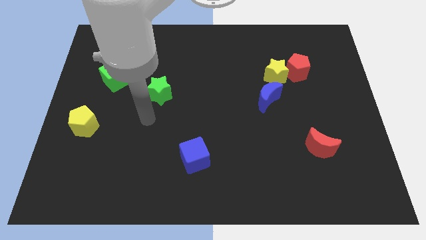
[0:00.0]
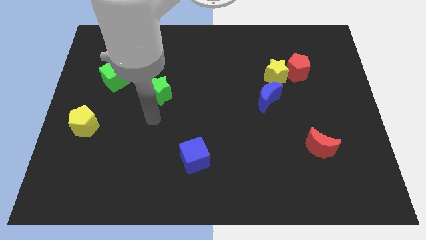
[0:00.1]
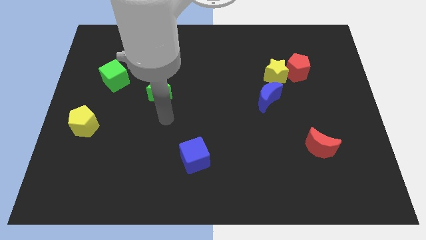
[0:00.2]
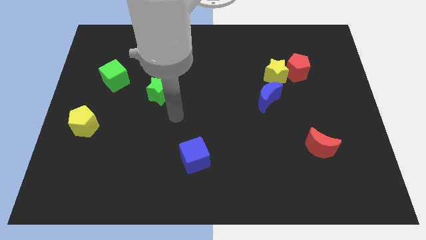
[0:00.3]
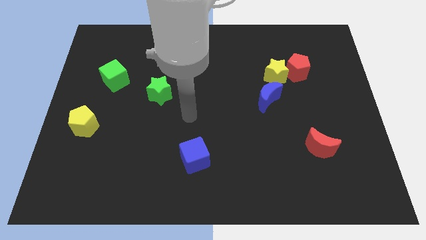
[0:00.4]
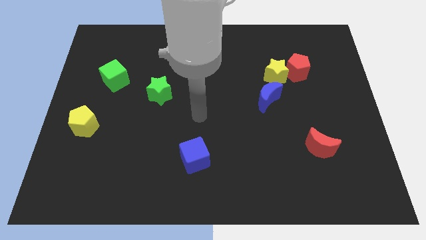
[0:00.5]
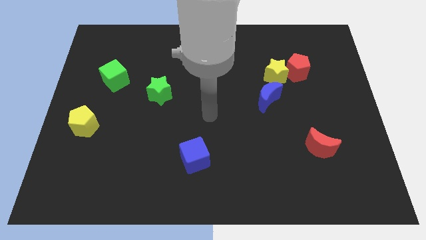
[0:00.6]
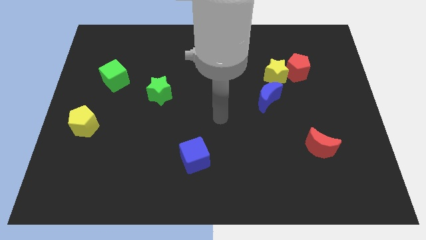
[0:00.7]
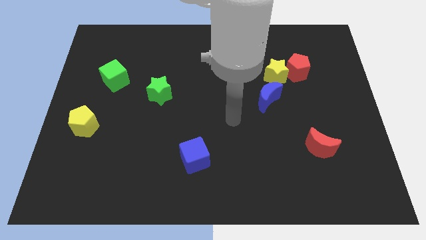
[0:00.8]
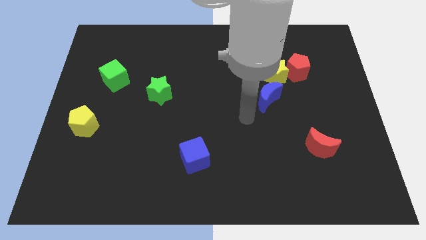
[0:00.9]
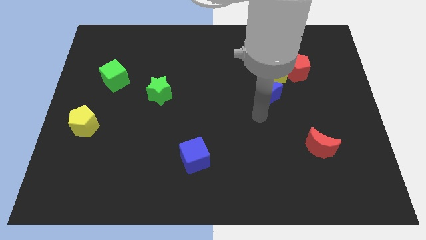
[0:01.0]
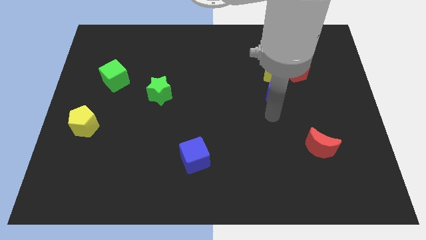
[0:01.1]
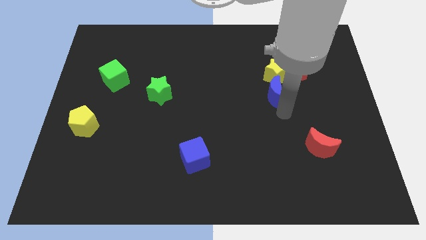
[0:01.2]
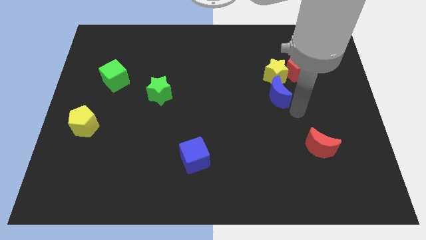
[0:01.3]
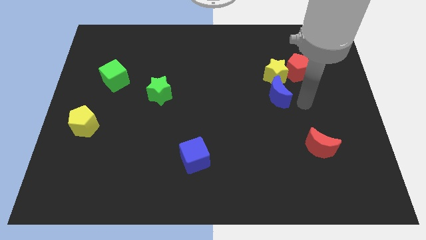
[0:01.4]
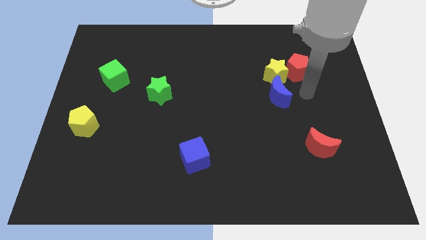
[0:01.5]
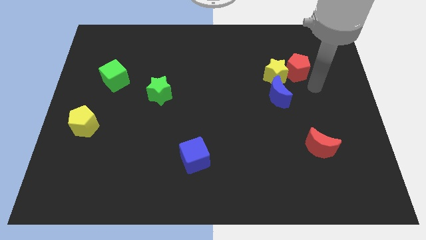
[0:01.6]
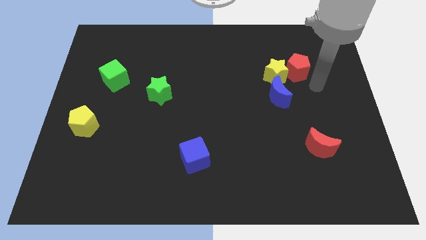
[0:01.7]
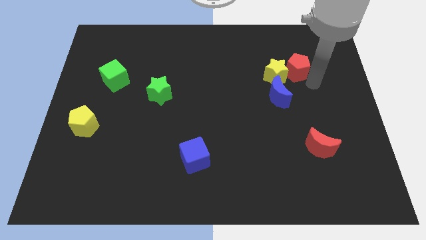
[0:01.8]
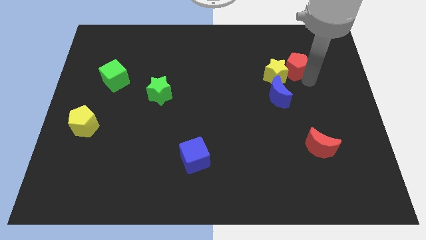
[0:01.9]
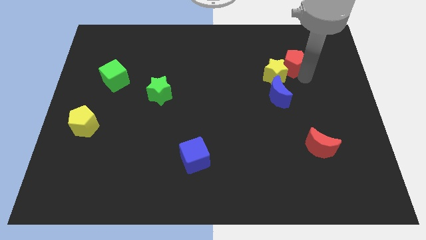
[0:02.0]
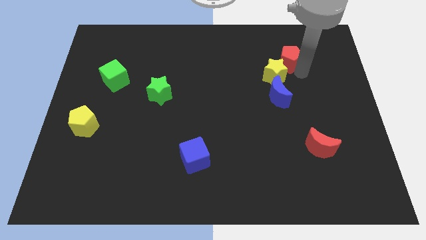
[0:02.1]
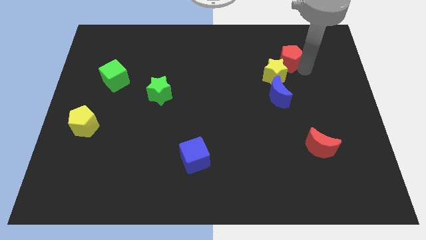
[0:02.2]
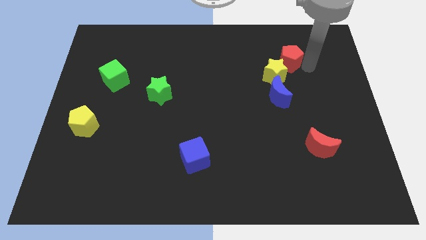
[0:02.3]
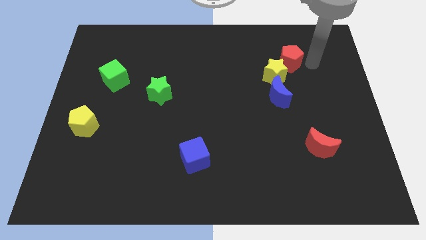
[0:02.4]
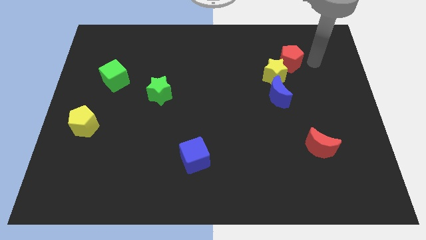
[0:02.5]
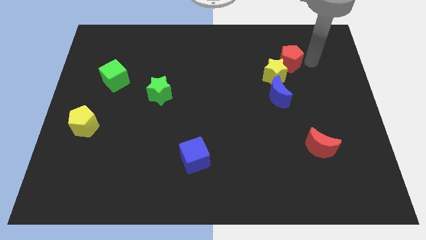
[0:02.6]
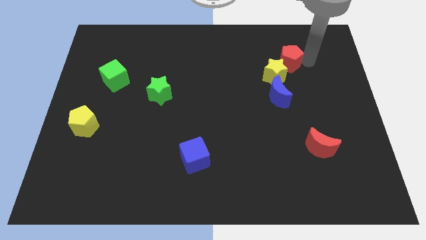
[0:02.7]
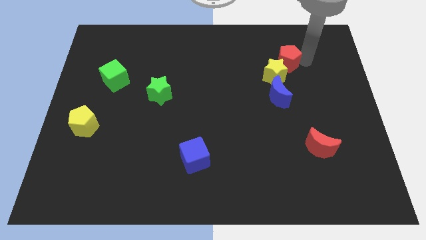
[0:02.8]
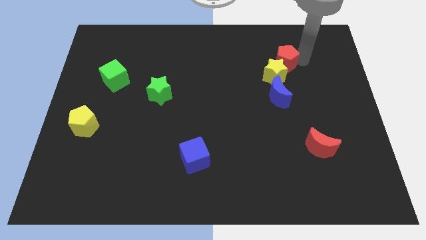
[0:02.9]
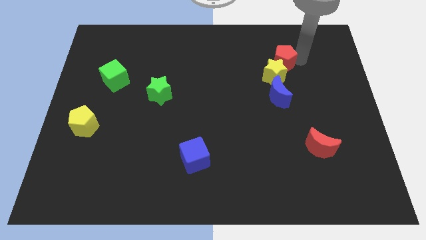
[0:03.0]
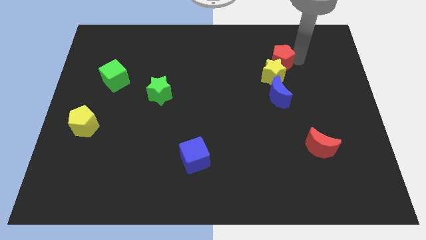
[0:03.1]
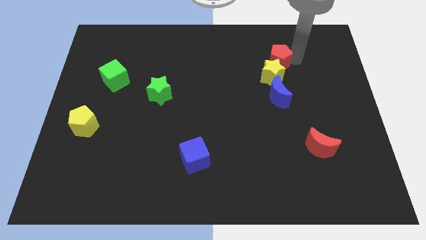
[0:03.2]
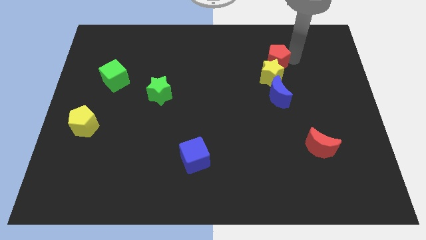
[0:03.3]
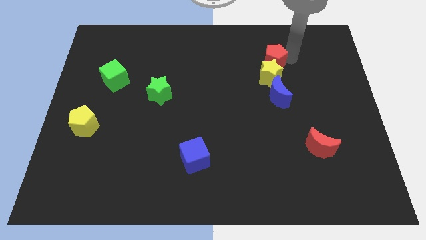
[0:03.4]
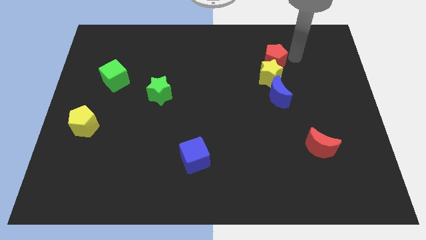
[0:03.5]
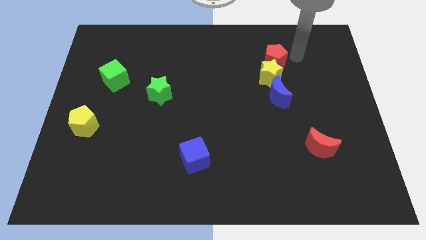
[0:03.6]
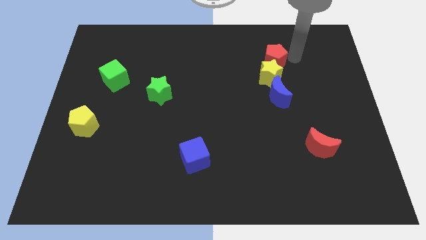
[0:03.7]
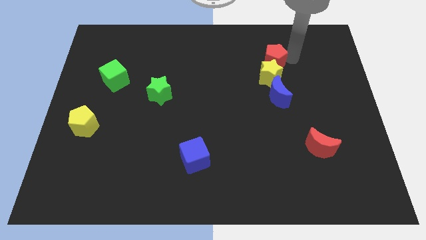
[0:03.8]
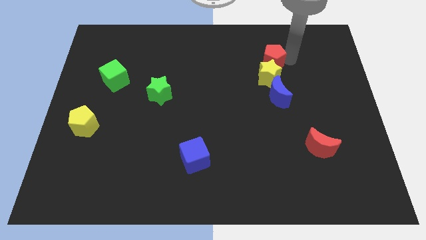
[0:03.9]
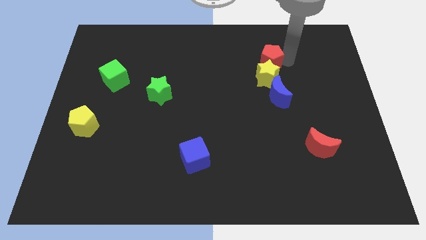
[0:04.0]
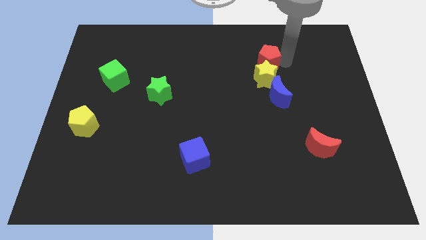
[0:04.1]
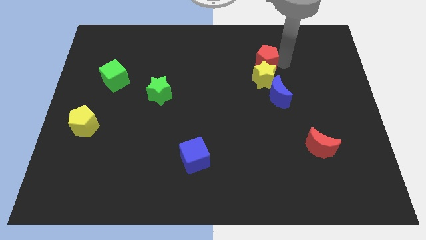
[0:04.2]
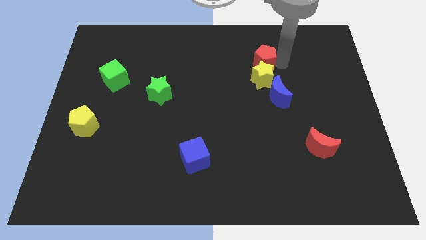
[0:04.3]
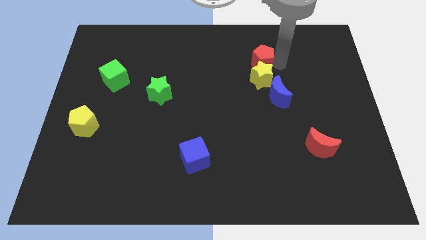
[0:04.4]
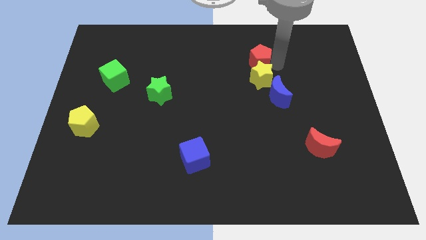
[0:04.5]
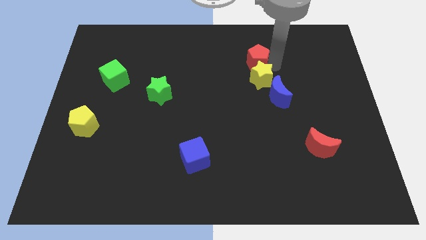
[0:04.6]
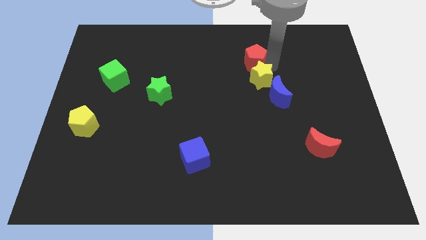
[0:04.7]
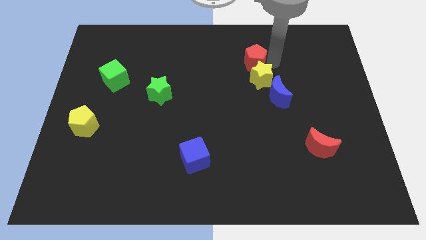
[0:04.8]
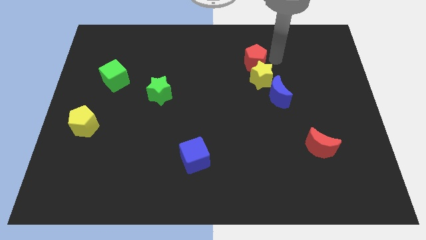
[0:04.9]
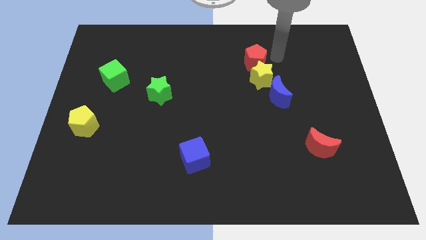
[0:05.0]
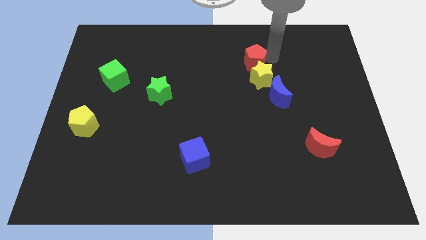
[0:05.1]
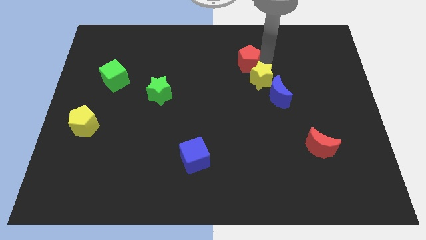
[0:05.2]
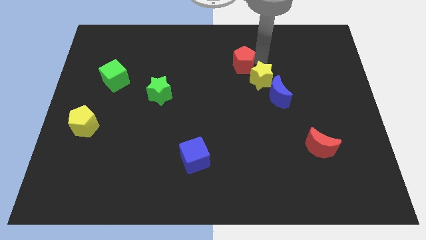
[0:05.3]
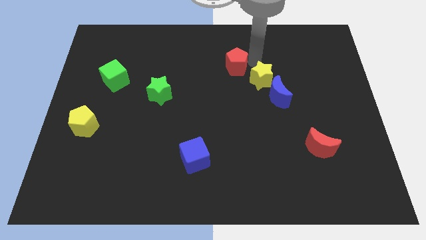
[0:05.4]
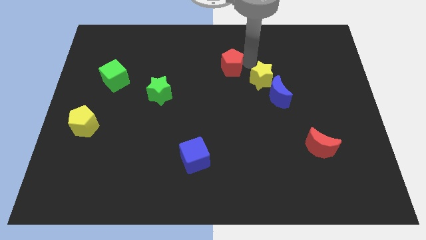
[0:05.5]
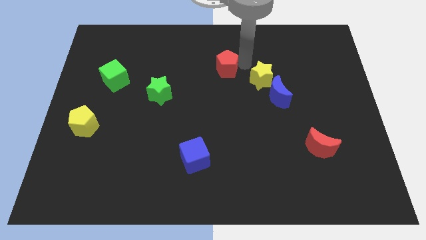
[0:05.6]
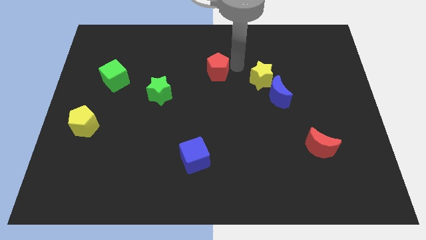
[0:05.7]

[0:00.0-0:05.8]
move the red pentagon left

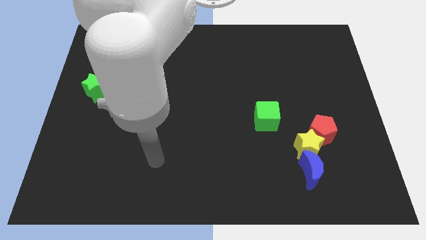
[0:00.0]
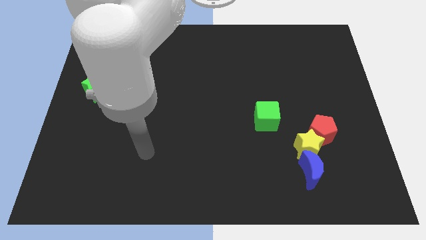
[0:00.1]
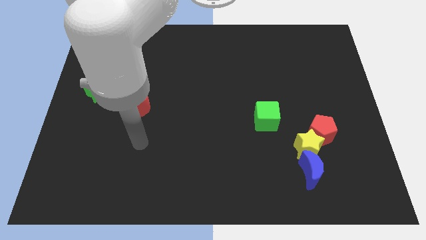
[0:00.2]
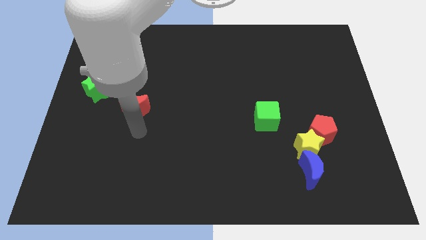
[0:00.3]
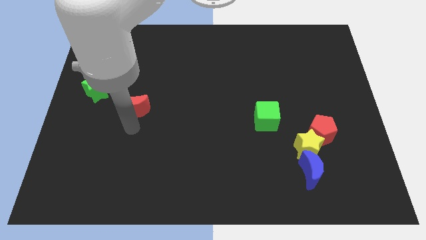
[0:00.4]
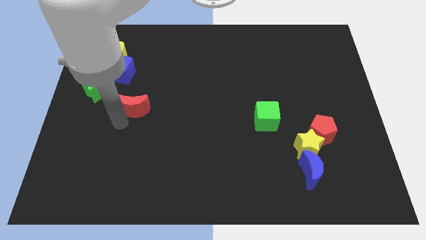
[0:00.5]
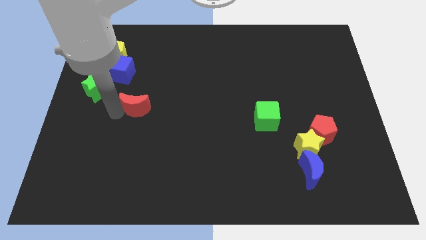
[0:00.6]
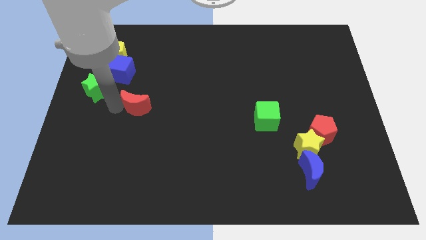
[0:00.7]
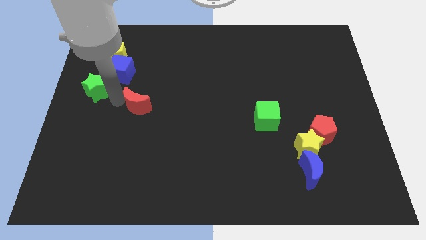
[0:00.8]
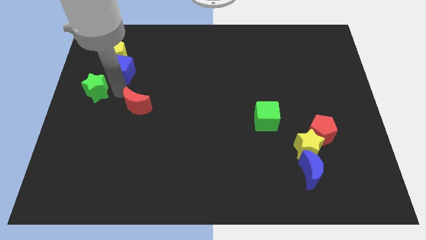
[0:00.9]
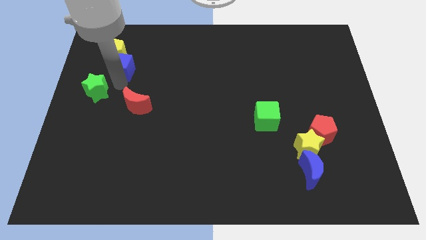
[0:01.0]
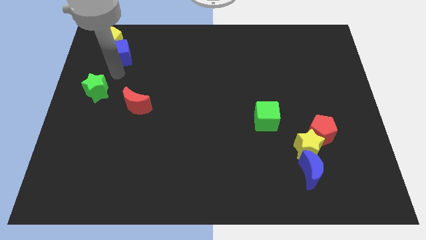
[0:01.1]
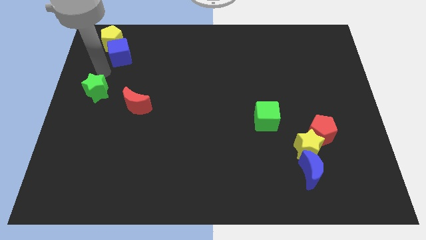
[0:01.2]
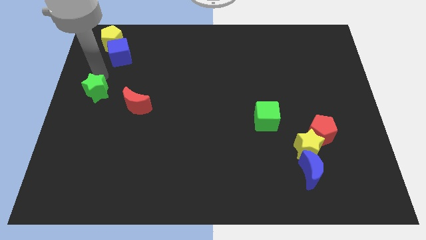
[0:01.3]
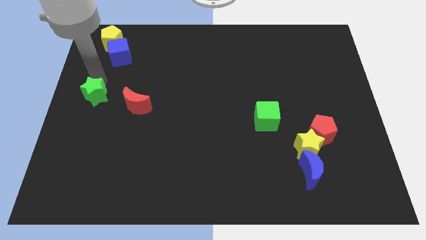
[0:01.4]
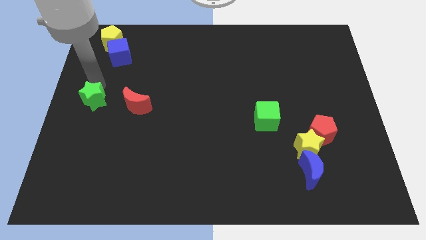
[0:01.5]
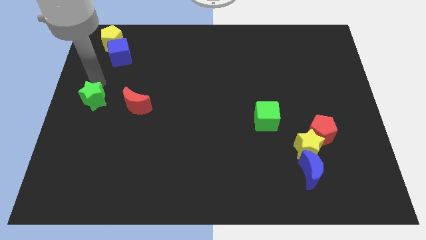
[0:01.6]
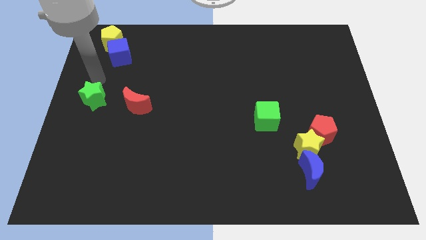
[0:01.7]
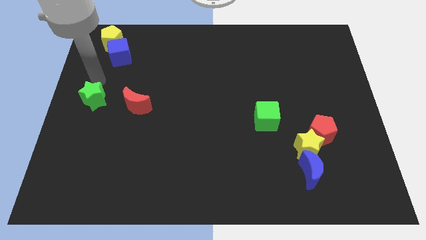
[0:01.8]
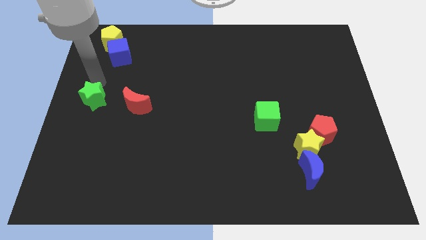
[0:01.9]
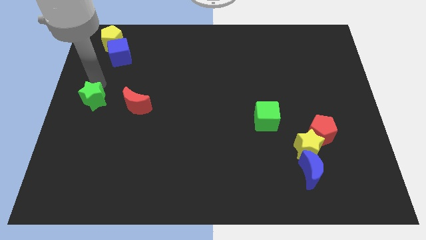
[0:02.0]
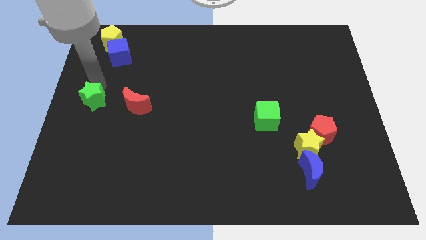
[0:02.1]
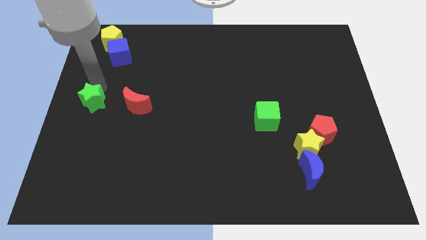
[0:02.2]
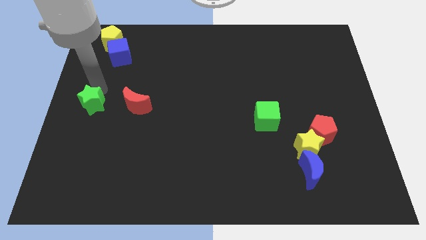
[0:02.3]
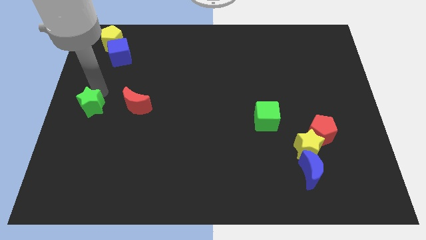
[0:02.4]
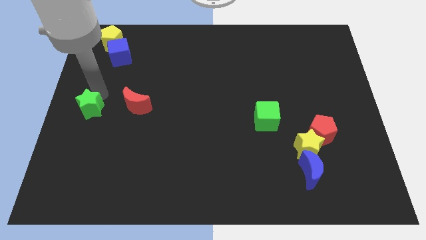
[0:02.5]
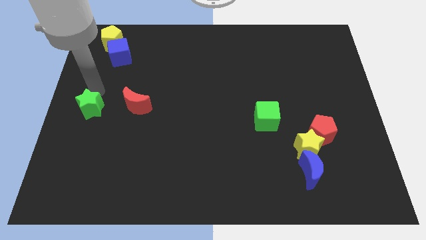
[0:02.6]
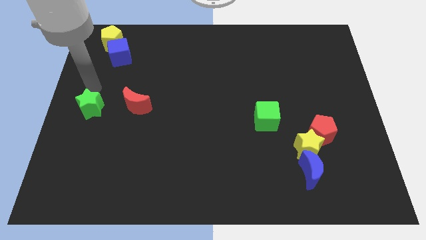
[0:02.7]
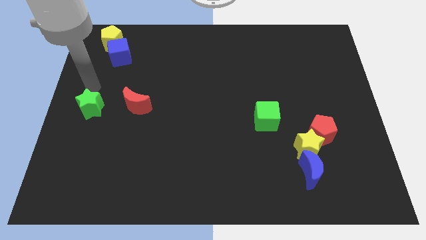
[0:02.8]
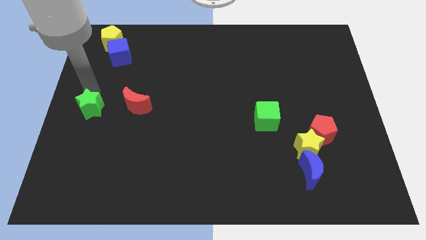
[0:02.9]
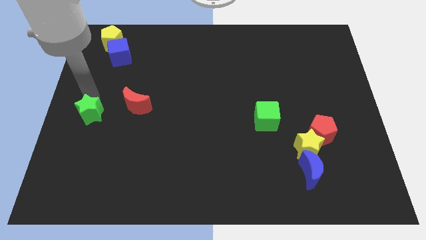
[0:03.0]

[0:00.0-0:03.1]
slightly move the green star down
